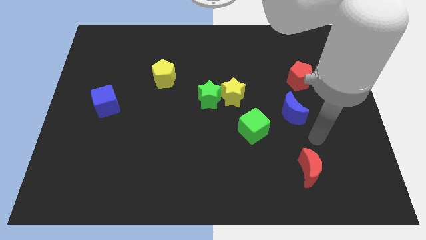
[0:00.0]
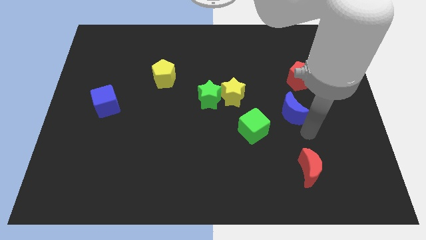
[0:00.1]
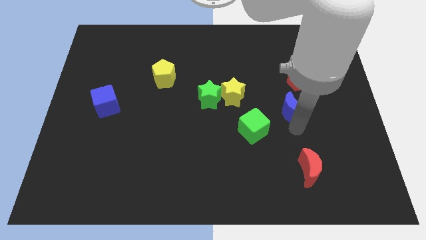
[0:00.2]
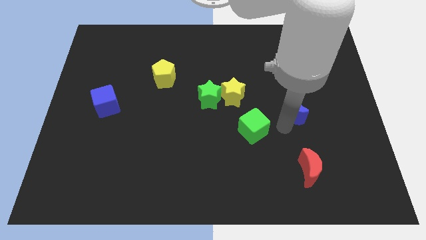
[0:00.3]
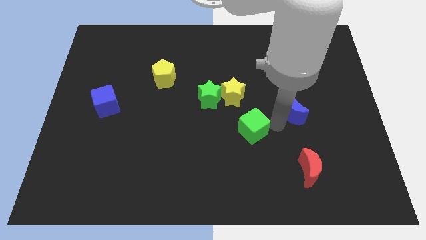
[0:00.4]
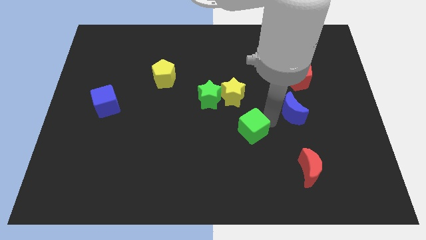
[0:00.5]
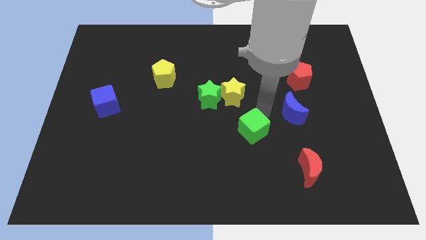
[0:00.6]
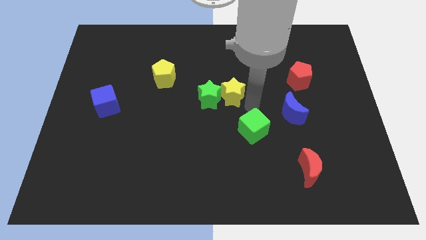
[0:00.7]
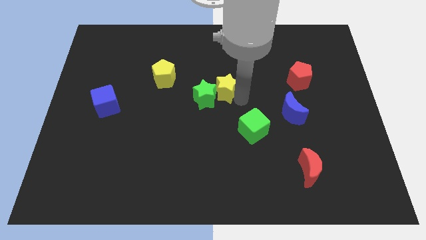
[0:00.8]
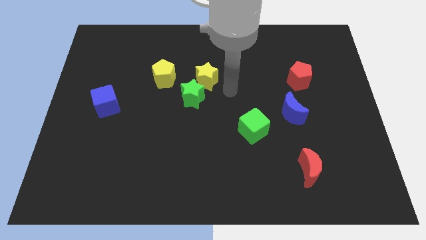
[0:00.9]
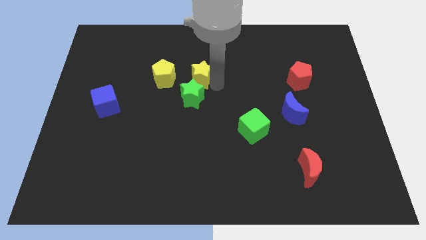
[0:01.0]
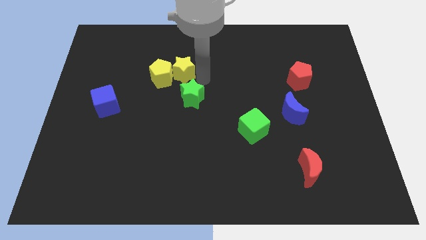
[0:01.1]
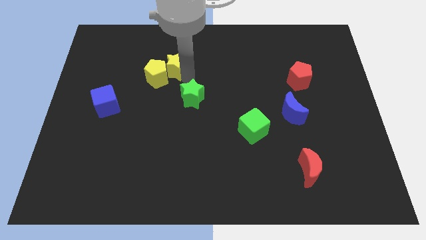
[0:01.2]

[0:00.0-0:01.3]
separate the green star from the yellow star

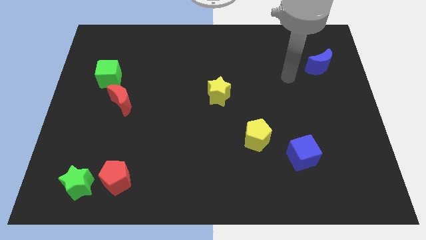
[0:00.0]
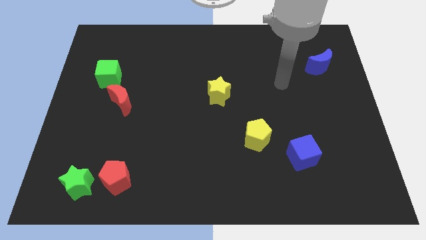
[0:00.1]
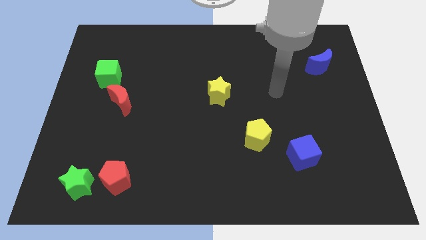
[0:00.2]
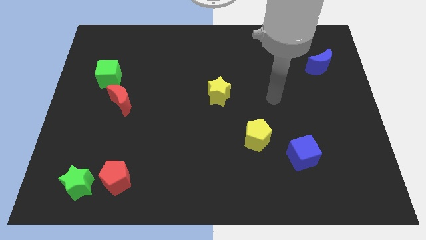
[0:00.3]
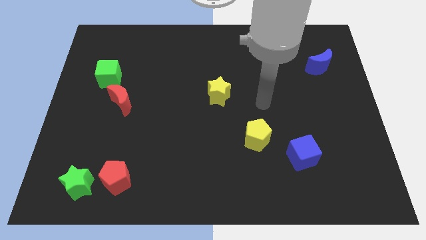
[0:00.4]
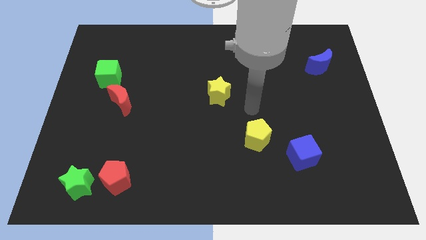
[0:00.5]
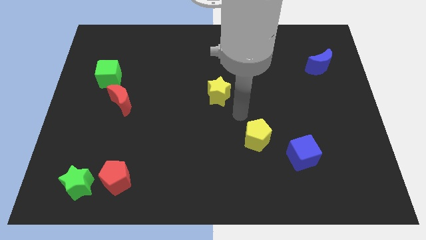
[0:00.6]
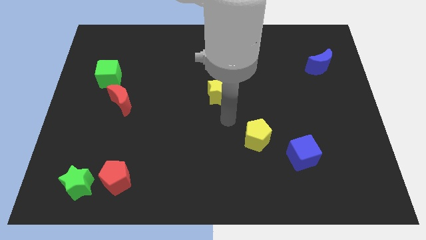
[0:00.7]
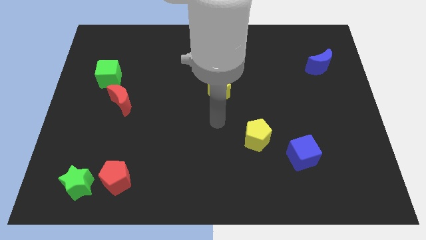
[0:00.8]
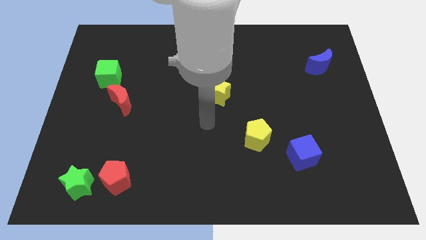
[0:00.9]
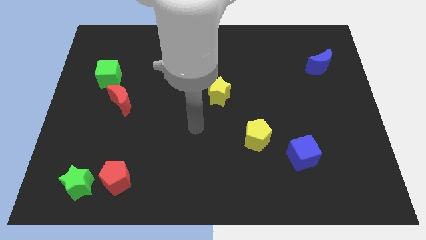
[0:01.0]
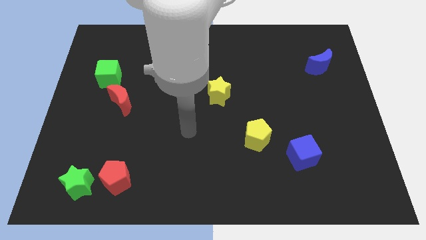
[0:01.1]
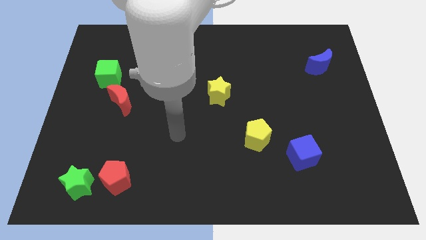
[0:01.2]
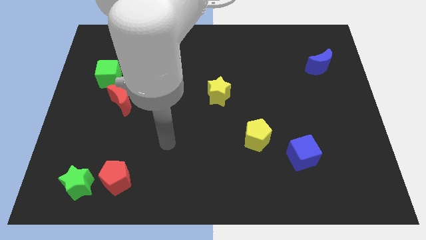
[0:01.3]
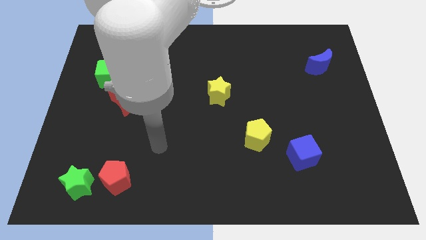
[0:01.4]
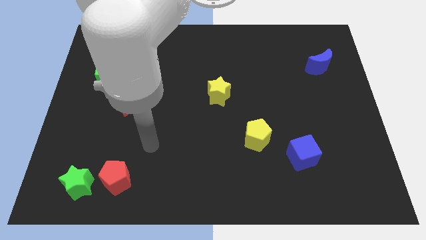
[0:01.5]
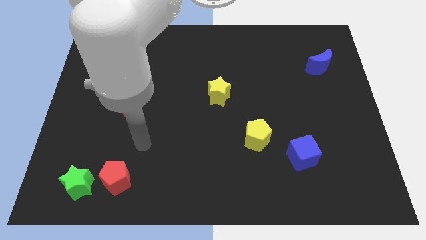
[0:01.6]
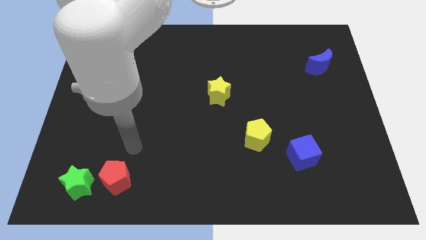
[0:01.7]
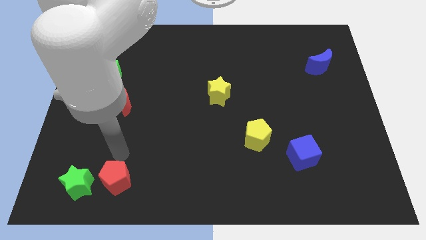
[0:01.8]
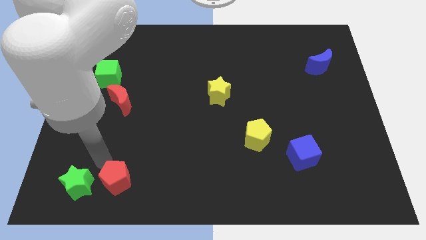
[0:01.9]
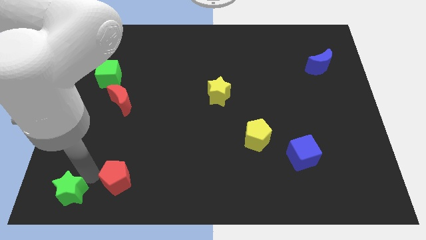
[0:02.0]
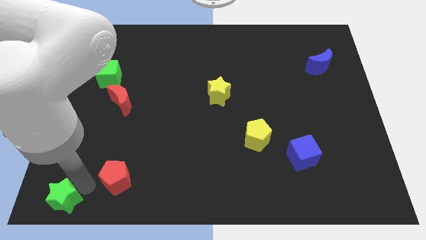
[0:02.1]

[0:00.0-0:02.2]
move the red pentagon away from the green star

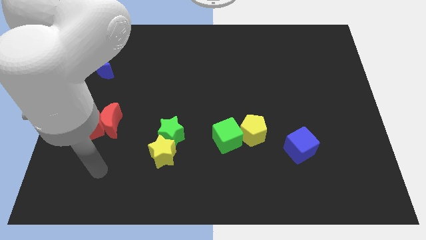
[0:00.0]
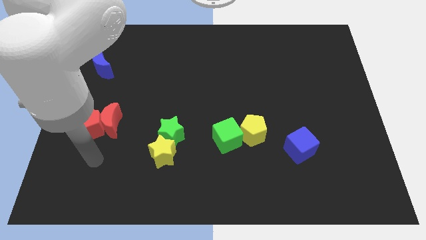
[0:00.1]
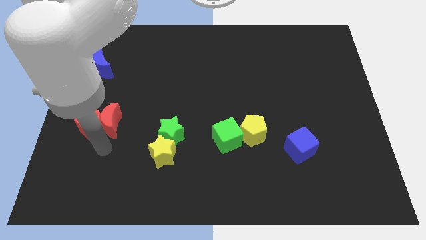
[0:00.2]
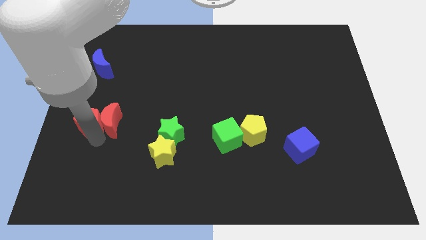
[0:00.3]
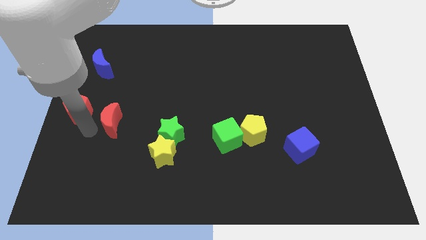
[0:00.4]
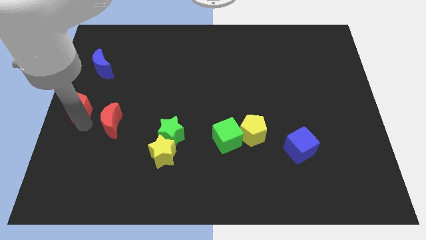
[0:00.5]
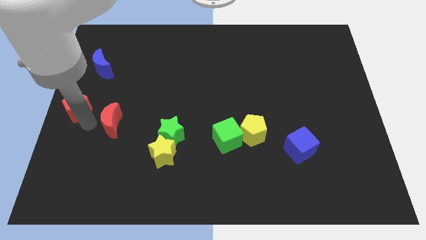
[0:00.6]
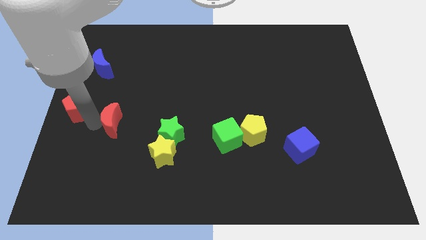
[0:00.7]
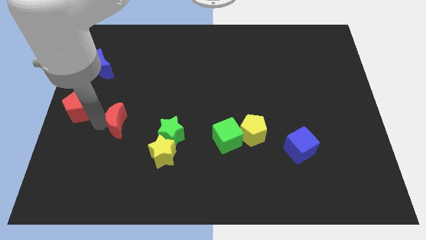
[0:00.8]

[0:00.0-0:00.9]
move the red moon away from the red pentagon

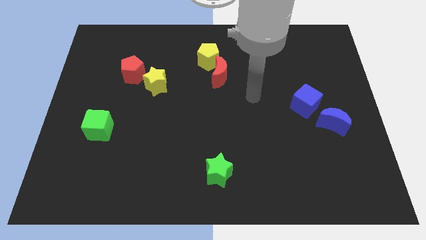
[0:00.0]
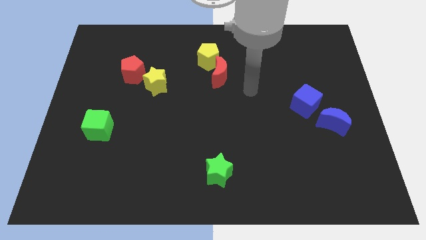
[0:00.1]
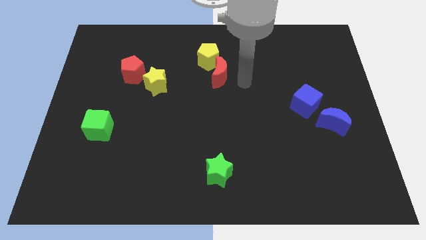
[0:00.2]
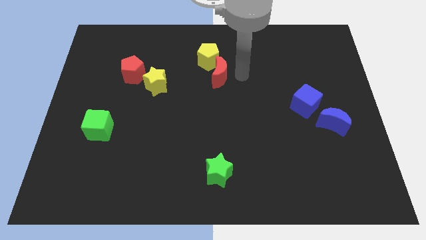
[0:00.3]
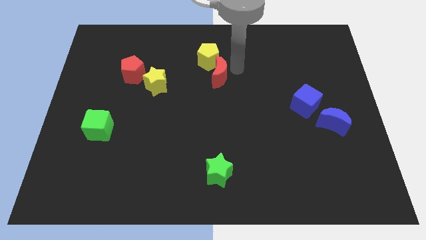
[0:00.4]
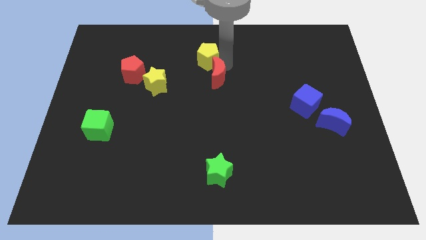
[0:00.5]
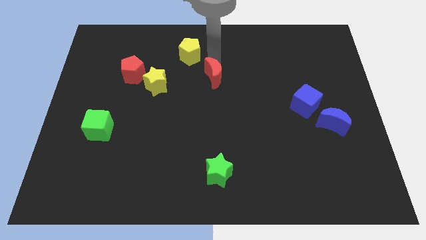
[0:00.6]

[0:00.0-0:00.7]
move the red moon away from the yellow pentagon

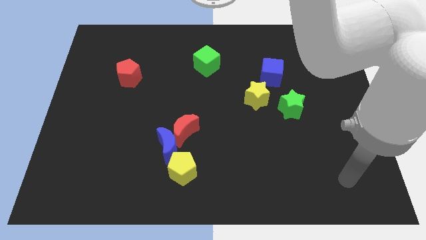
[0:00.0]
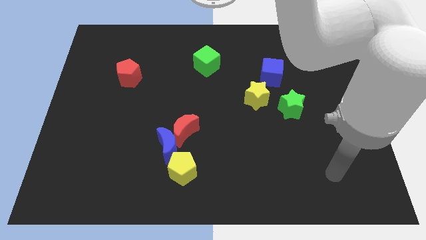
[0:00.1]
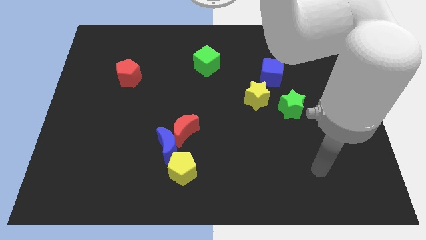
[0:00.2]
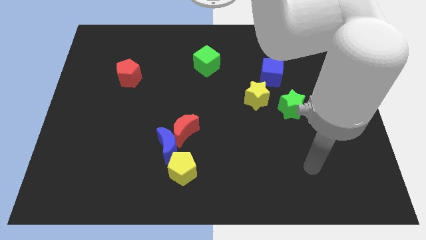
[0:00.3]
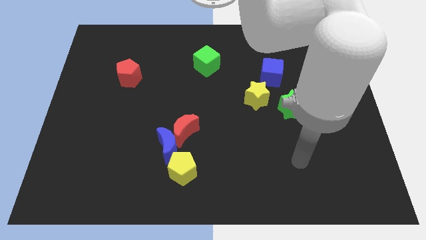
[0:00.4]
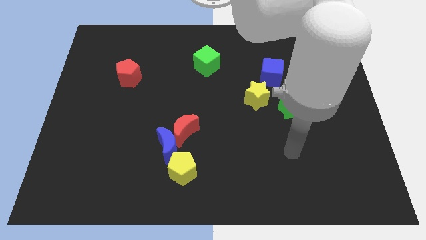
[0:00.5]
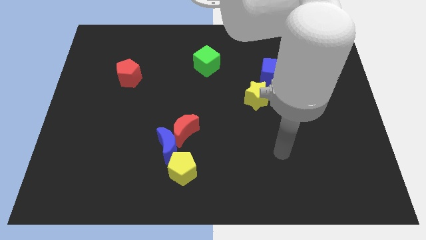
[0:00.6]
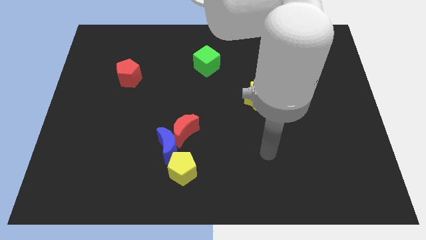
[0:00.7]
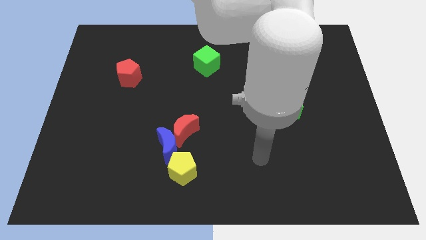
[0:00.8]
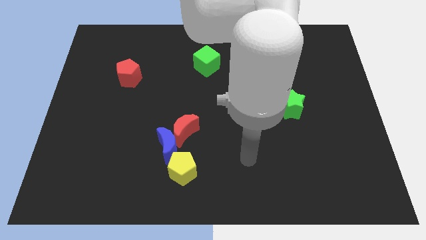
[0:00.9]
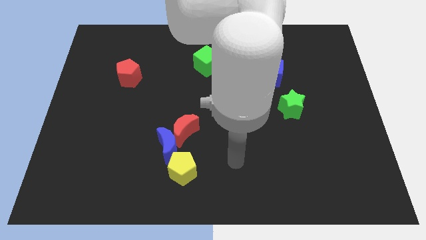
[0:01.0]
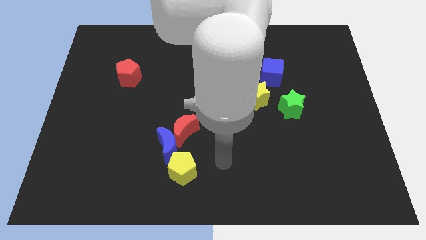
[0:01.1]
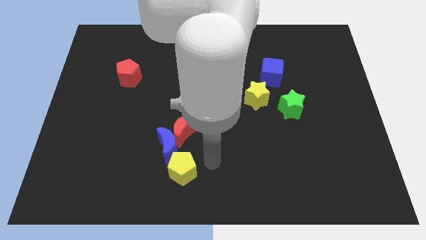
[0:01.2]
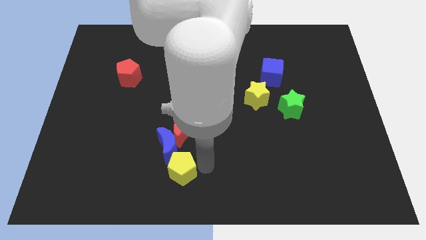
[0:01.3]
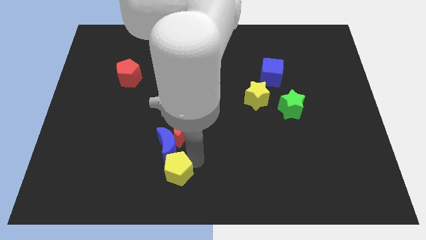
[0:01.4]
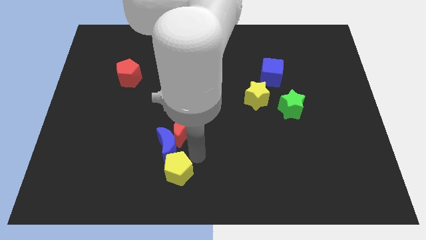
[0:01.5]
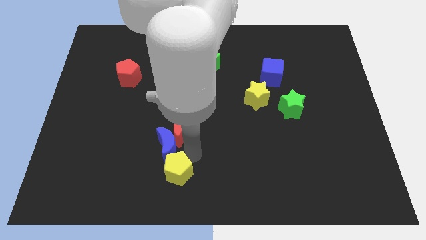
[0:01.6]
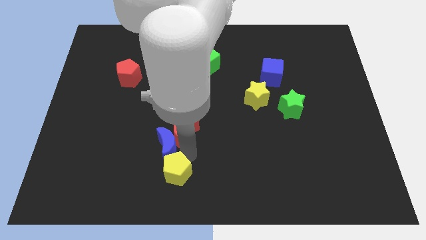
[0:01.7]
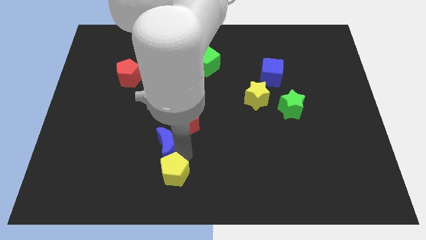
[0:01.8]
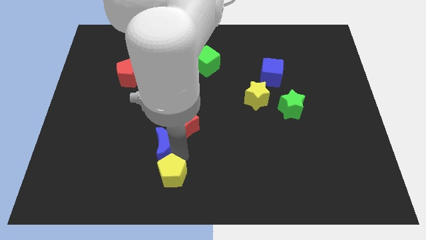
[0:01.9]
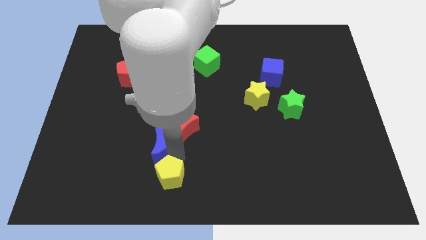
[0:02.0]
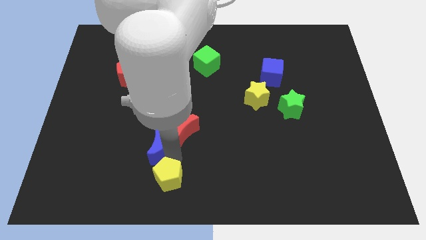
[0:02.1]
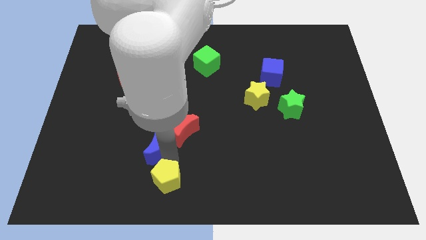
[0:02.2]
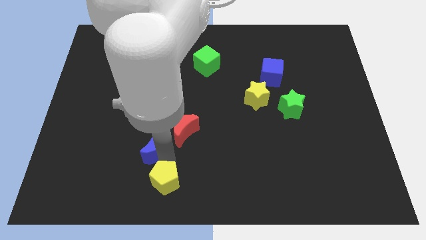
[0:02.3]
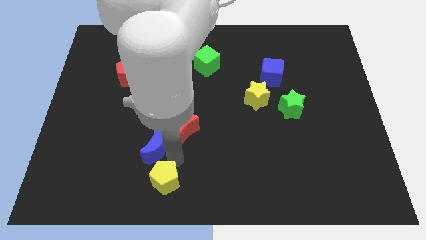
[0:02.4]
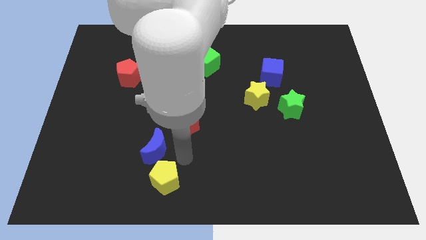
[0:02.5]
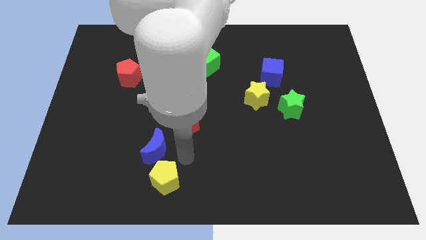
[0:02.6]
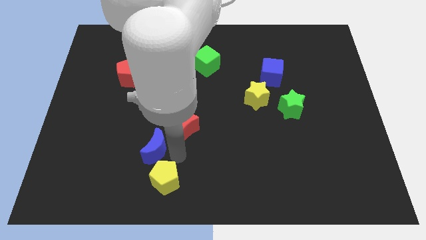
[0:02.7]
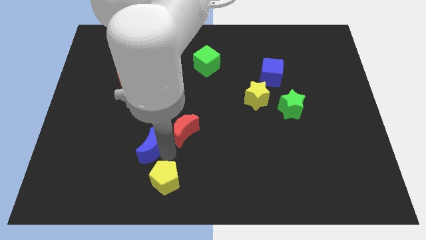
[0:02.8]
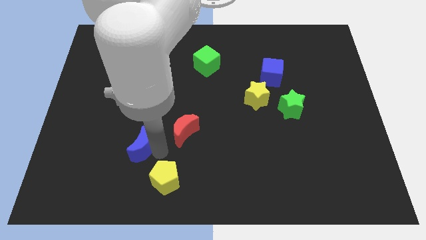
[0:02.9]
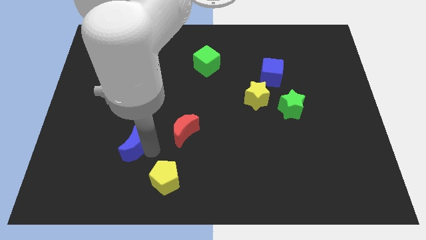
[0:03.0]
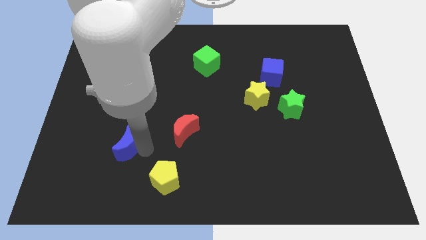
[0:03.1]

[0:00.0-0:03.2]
move the blue moon away from the red moon and yellow pentagon

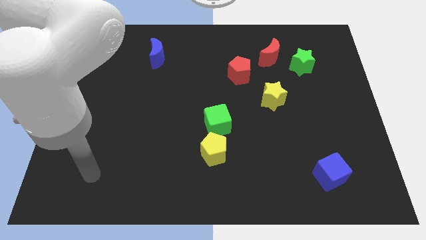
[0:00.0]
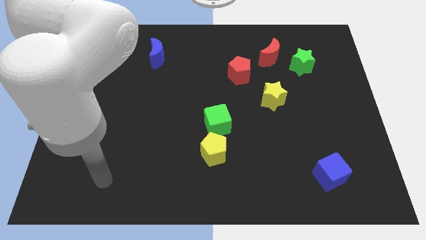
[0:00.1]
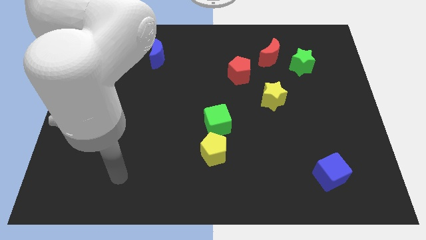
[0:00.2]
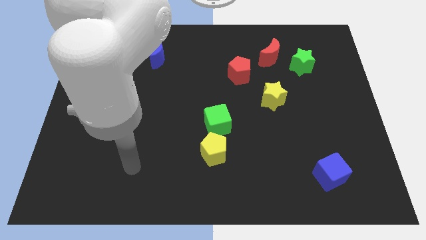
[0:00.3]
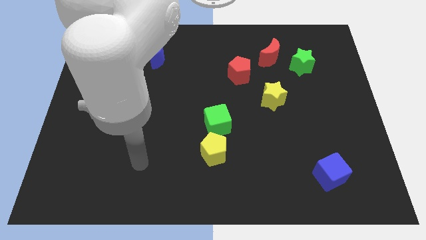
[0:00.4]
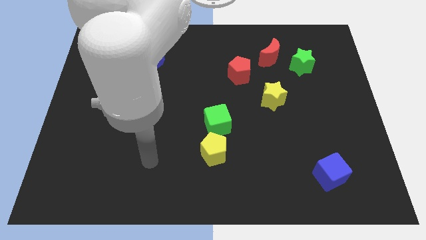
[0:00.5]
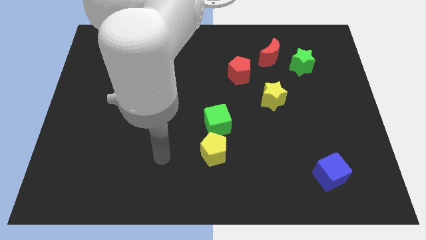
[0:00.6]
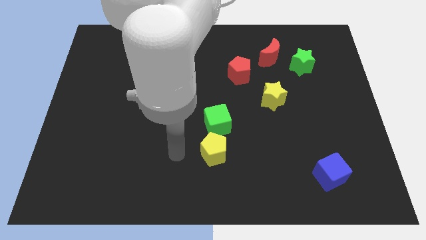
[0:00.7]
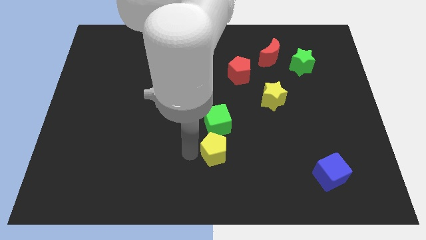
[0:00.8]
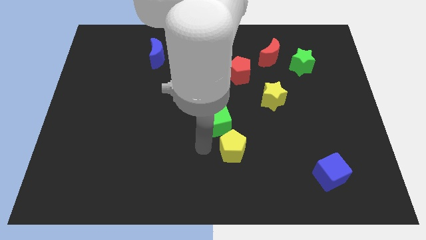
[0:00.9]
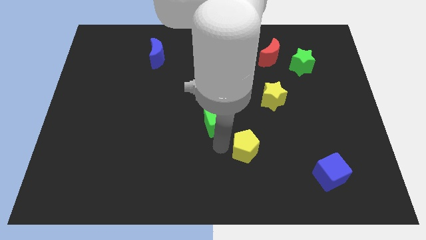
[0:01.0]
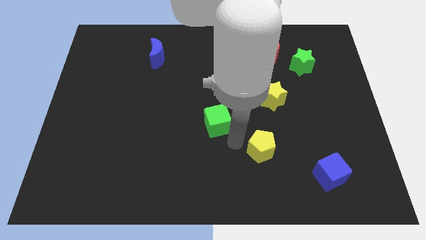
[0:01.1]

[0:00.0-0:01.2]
separate the green cube from the yellow pentagon
